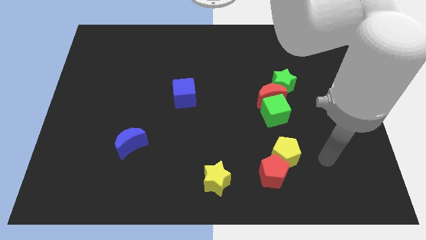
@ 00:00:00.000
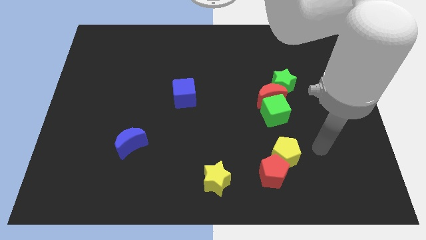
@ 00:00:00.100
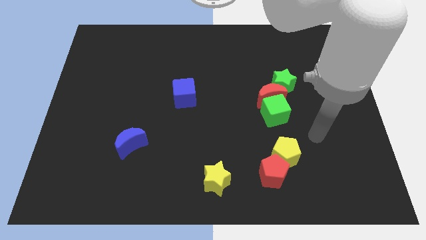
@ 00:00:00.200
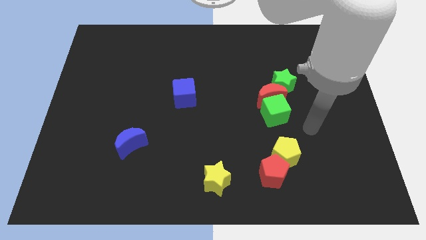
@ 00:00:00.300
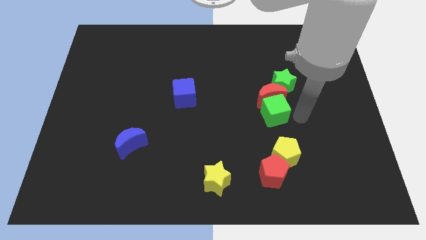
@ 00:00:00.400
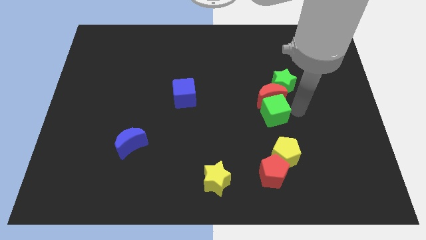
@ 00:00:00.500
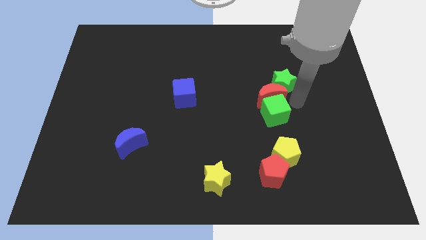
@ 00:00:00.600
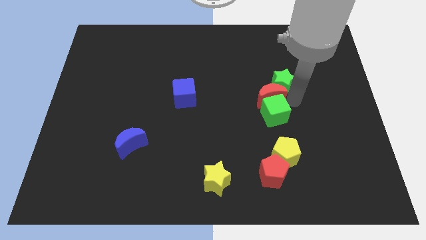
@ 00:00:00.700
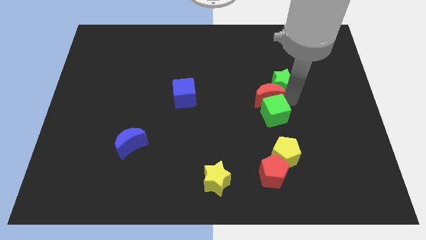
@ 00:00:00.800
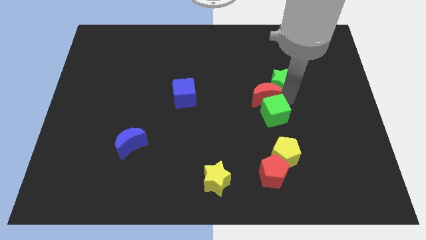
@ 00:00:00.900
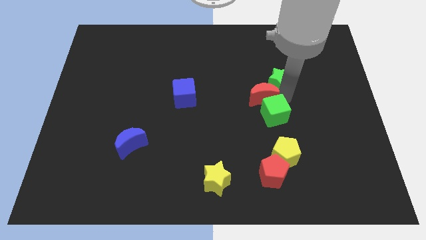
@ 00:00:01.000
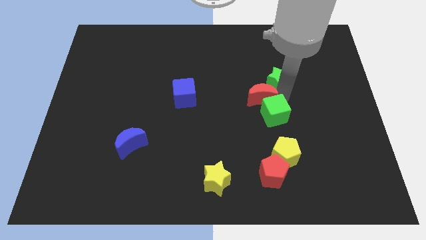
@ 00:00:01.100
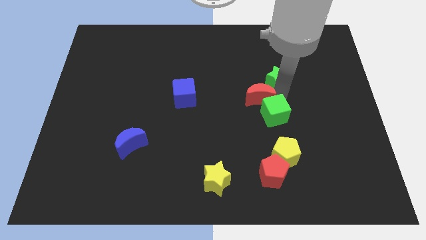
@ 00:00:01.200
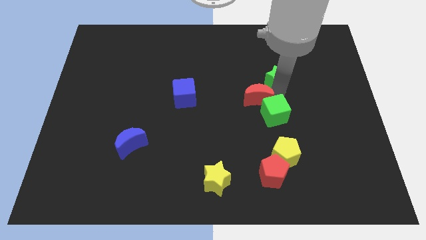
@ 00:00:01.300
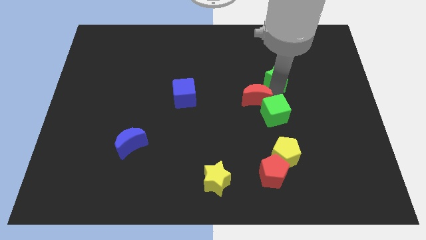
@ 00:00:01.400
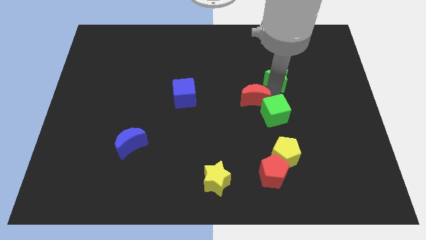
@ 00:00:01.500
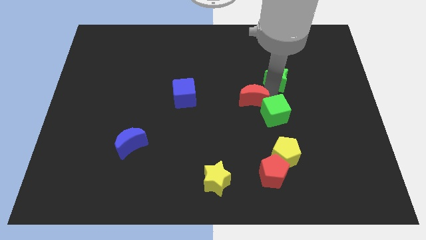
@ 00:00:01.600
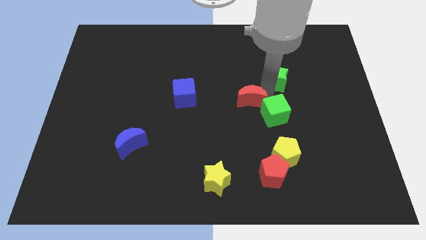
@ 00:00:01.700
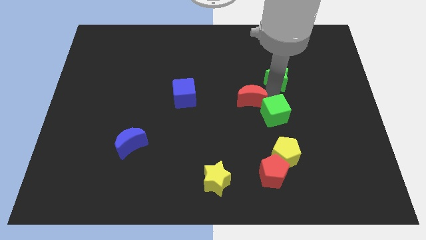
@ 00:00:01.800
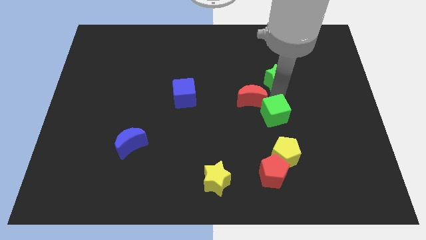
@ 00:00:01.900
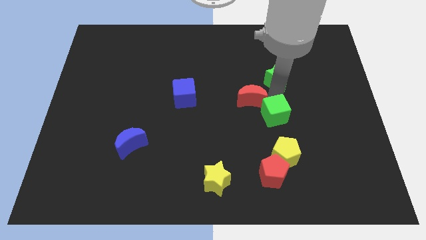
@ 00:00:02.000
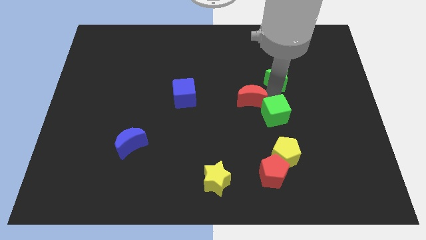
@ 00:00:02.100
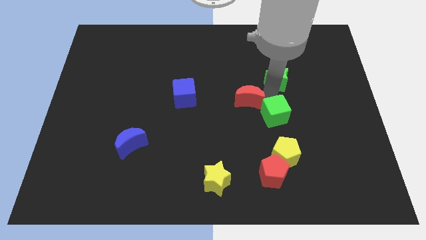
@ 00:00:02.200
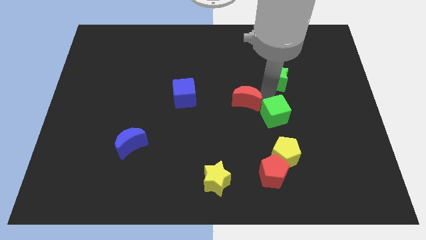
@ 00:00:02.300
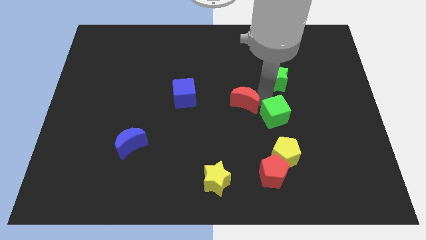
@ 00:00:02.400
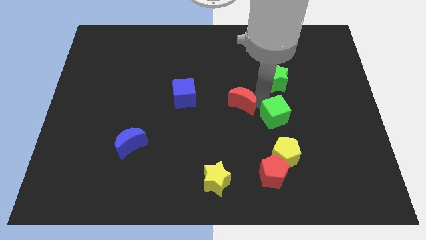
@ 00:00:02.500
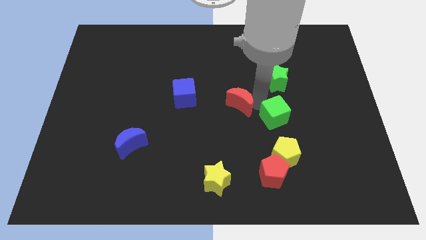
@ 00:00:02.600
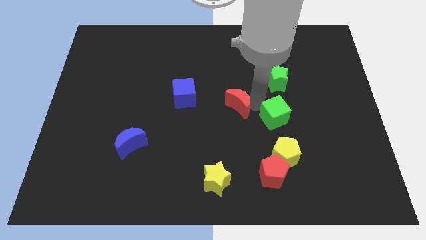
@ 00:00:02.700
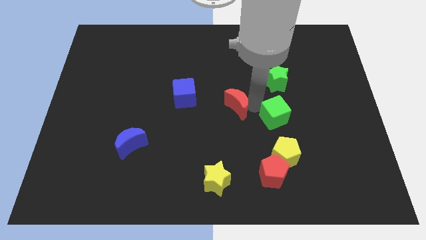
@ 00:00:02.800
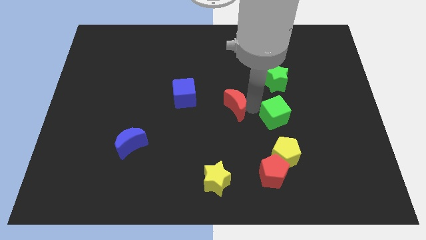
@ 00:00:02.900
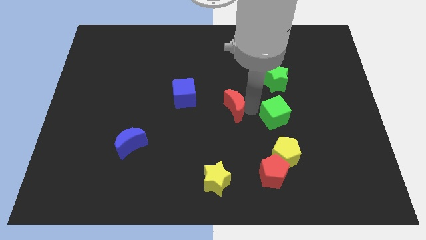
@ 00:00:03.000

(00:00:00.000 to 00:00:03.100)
pull the red moon apart from the green cube and green star

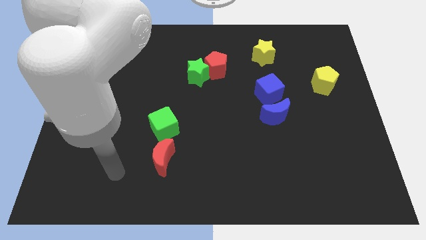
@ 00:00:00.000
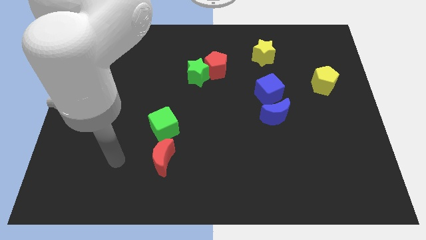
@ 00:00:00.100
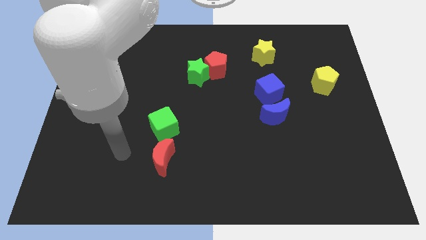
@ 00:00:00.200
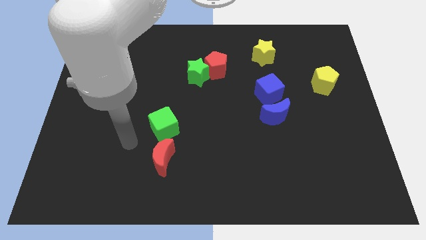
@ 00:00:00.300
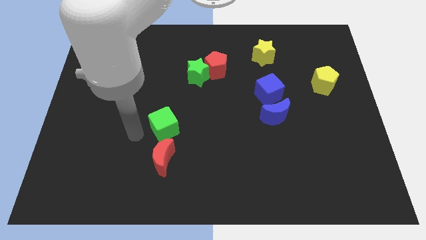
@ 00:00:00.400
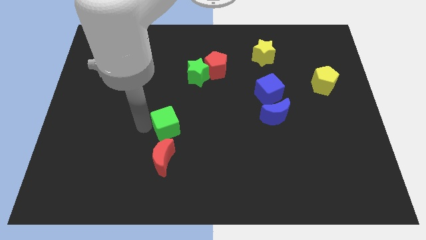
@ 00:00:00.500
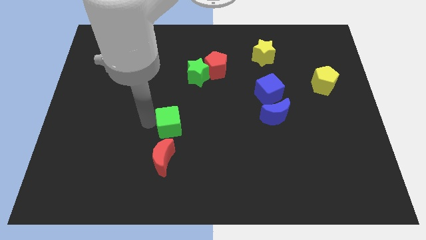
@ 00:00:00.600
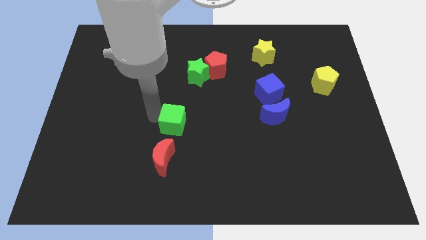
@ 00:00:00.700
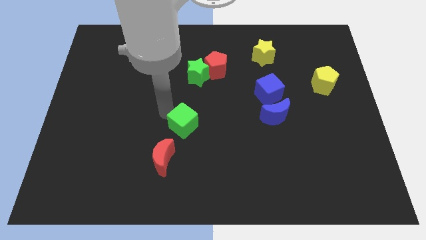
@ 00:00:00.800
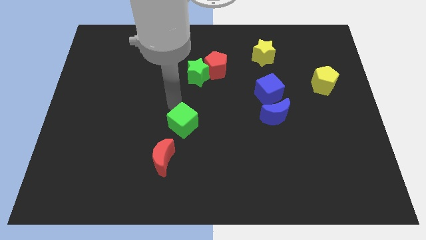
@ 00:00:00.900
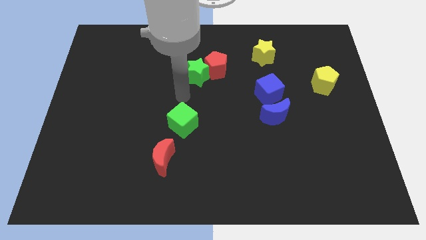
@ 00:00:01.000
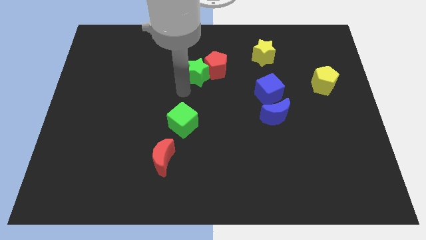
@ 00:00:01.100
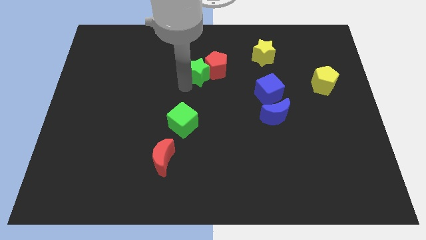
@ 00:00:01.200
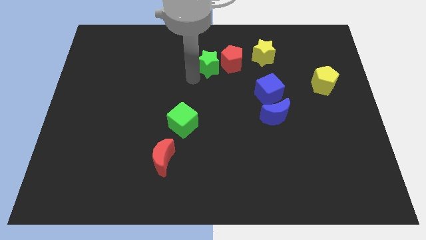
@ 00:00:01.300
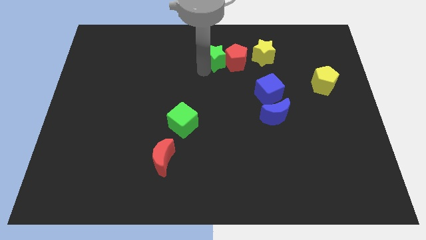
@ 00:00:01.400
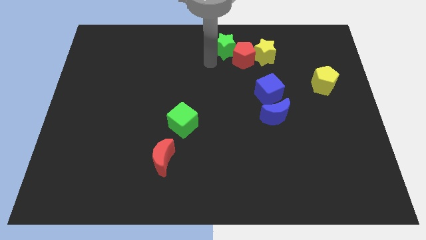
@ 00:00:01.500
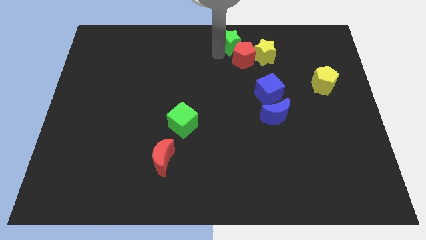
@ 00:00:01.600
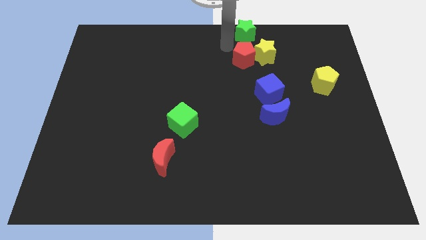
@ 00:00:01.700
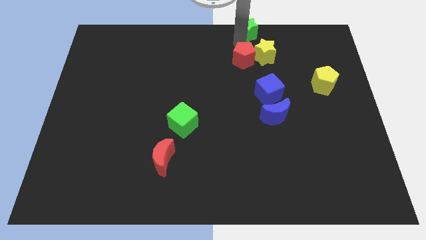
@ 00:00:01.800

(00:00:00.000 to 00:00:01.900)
separate the red pentagon from the green star

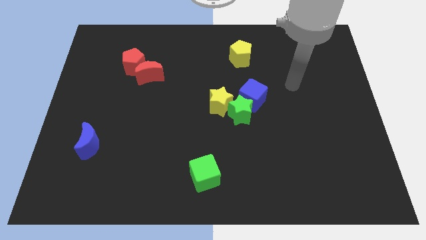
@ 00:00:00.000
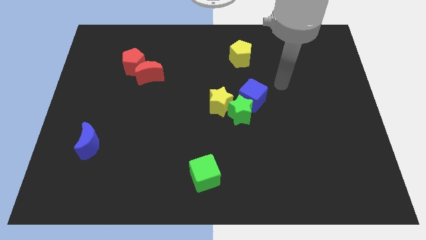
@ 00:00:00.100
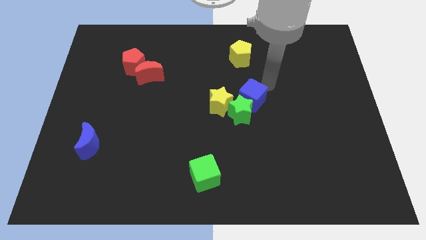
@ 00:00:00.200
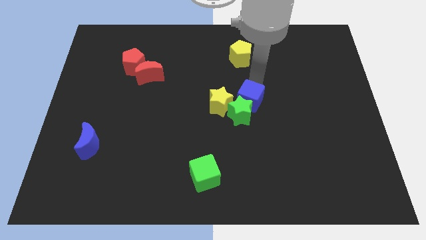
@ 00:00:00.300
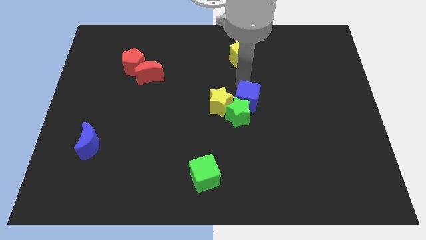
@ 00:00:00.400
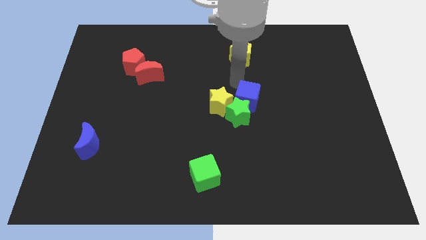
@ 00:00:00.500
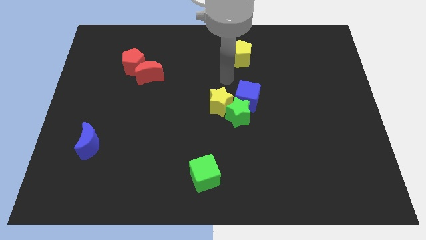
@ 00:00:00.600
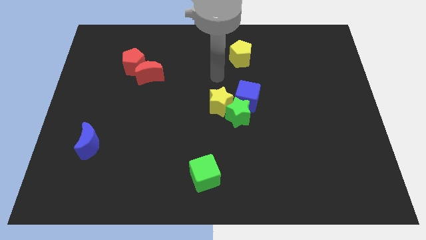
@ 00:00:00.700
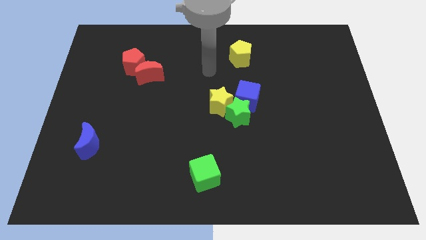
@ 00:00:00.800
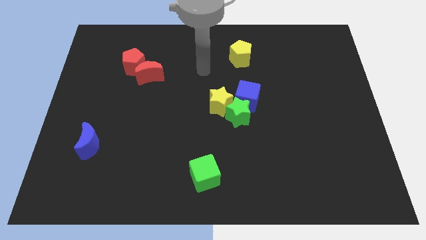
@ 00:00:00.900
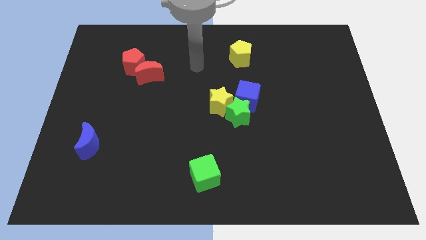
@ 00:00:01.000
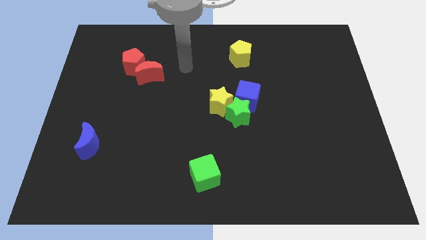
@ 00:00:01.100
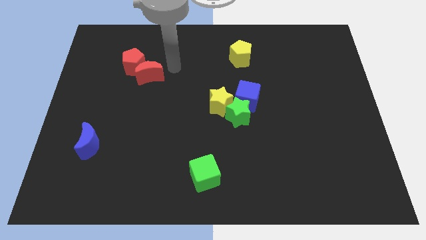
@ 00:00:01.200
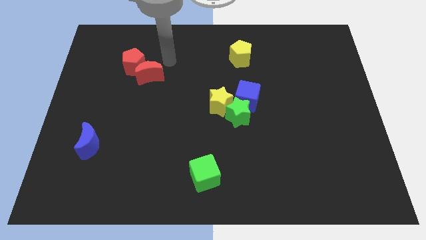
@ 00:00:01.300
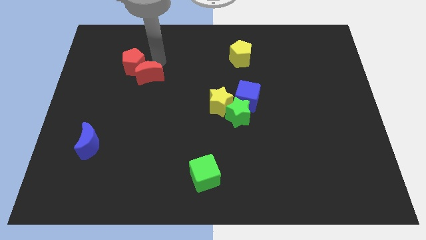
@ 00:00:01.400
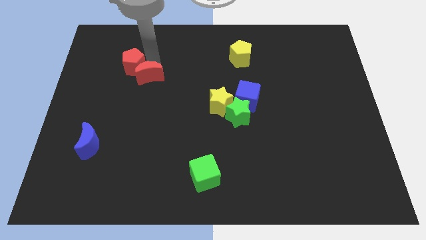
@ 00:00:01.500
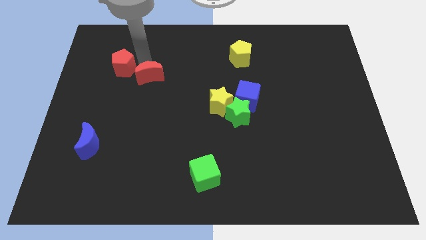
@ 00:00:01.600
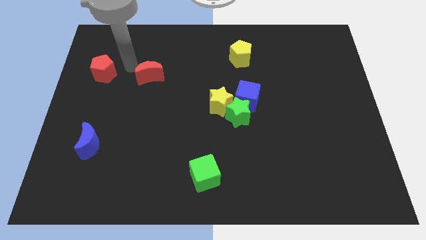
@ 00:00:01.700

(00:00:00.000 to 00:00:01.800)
separate the red moon from the red pentagon

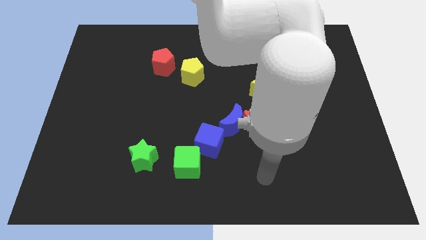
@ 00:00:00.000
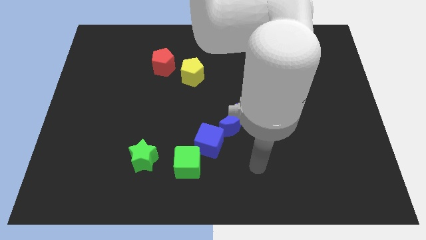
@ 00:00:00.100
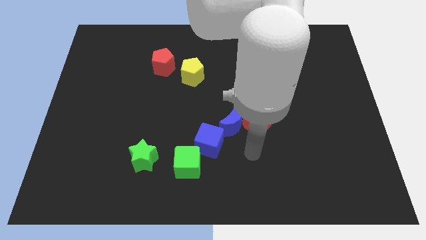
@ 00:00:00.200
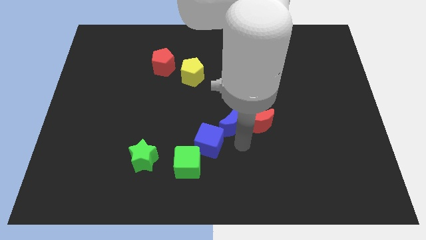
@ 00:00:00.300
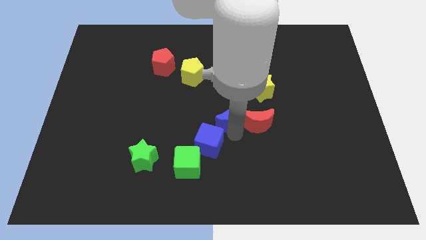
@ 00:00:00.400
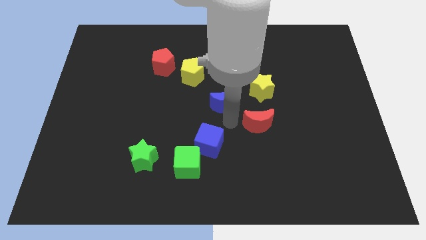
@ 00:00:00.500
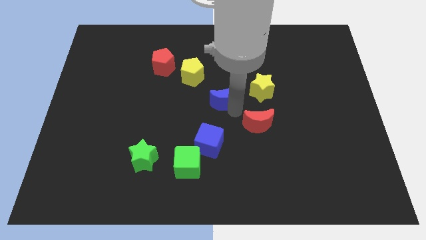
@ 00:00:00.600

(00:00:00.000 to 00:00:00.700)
move the red moon away from the blue moon

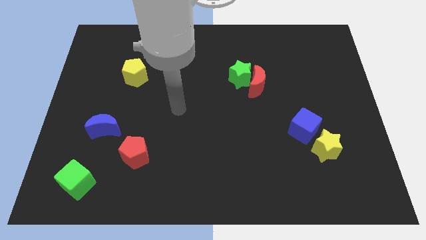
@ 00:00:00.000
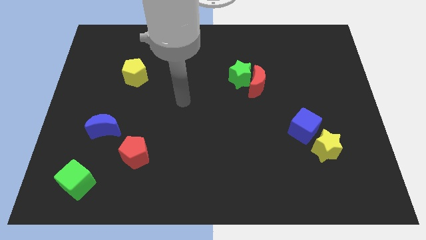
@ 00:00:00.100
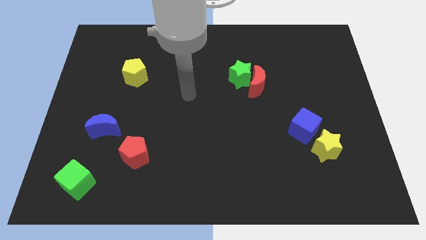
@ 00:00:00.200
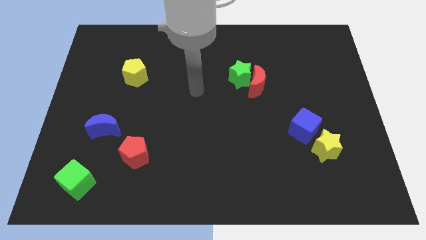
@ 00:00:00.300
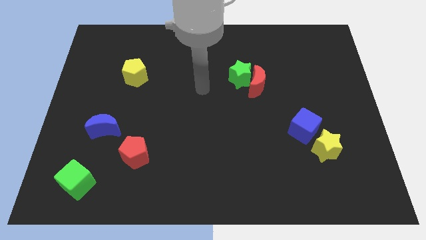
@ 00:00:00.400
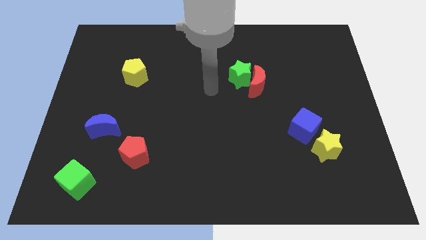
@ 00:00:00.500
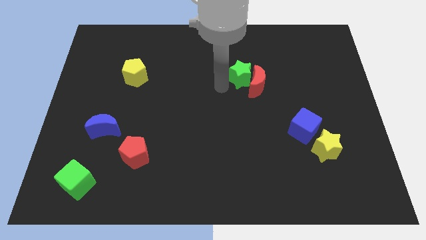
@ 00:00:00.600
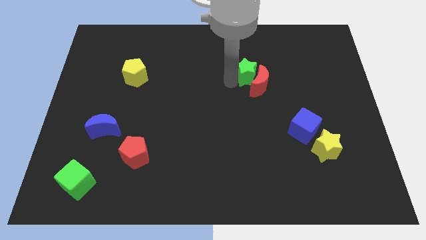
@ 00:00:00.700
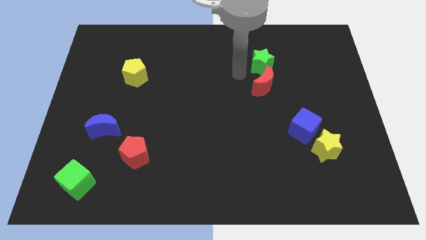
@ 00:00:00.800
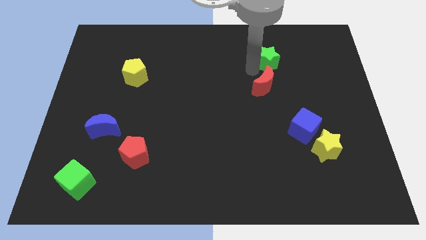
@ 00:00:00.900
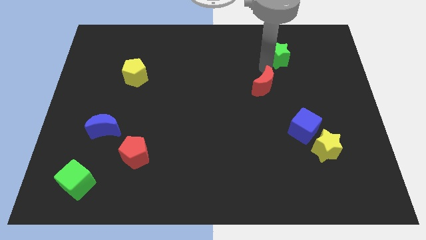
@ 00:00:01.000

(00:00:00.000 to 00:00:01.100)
move the red moon away from the green star

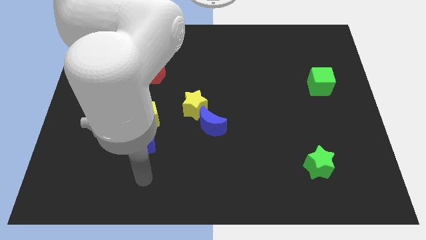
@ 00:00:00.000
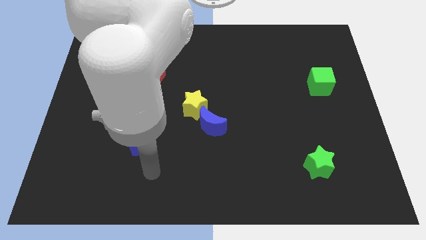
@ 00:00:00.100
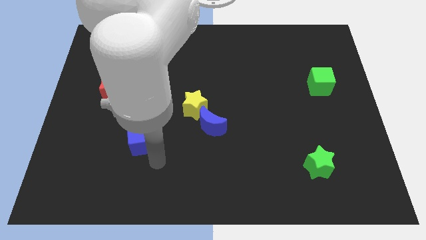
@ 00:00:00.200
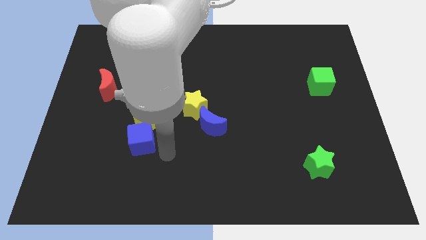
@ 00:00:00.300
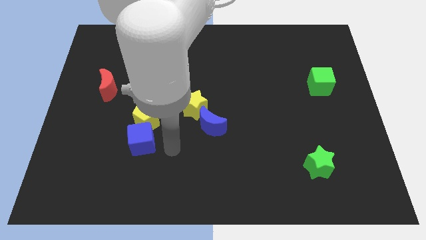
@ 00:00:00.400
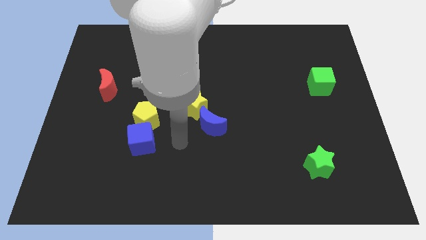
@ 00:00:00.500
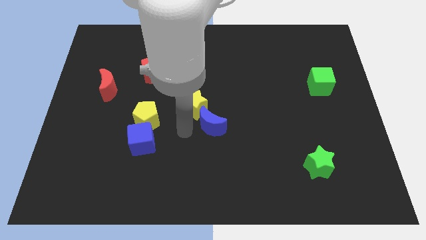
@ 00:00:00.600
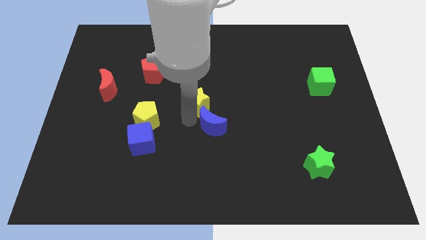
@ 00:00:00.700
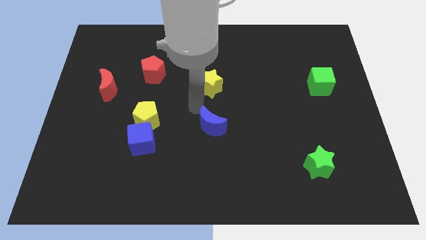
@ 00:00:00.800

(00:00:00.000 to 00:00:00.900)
pull the blue moon apart from the yellow star
